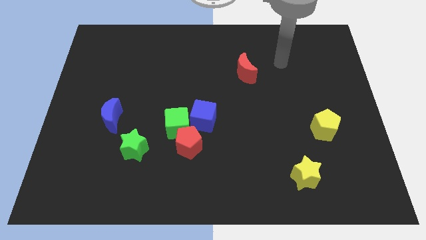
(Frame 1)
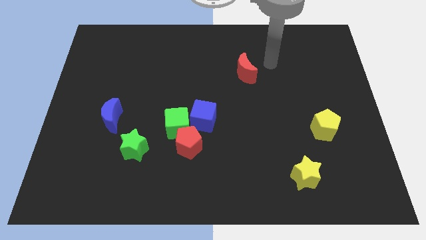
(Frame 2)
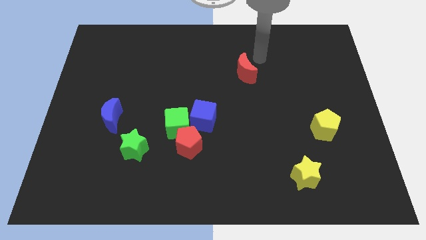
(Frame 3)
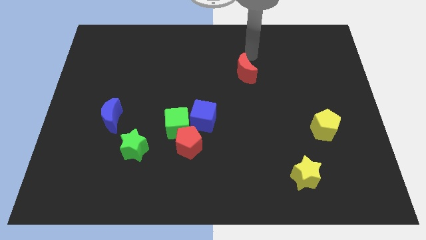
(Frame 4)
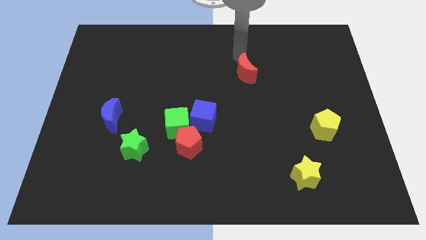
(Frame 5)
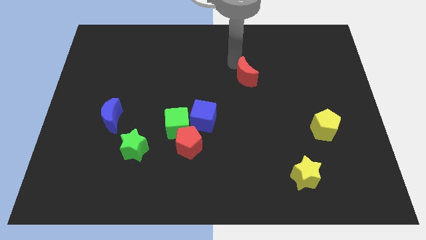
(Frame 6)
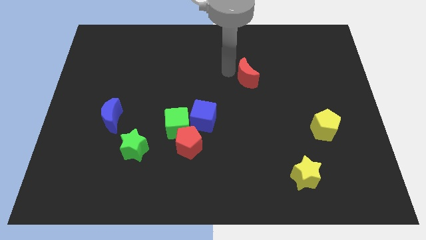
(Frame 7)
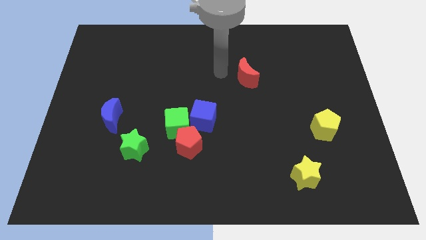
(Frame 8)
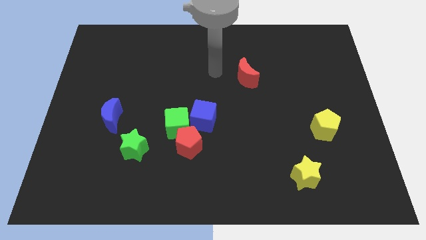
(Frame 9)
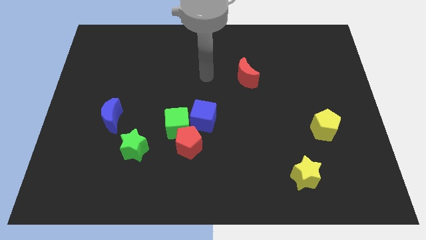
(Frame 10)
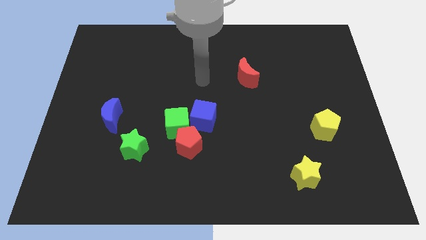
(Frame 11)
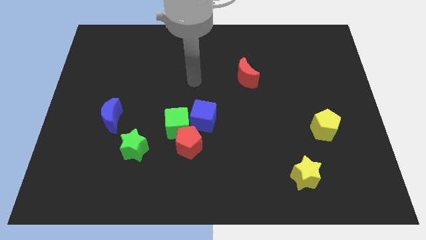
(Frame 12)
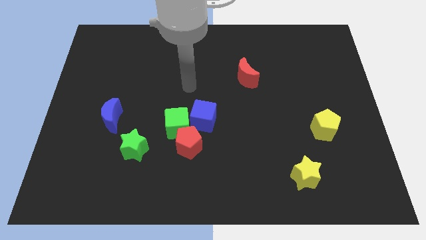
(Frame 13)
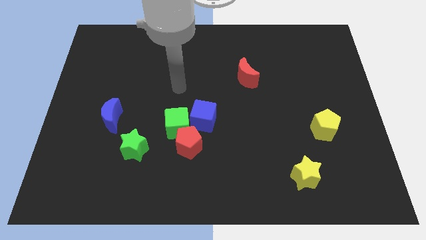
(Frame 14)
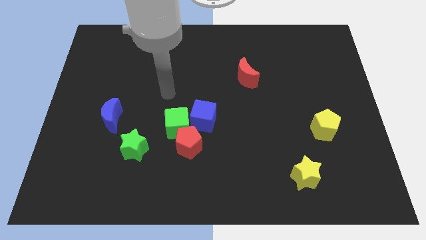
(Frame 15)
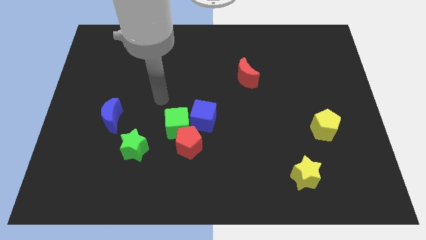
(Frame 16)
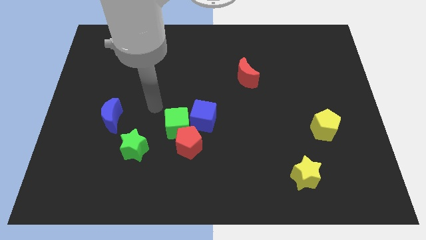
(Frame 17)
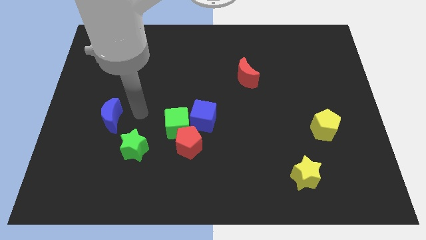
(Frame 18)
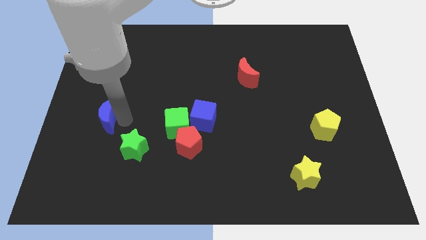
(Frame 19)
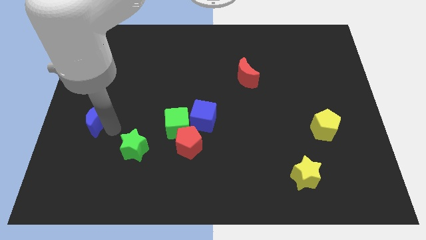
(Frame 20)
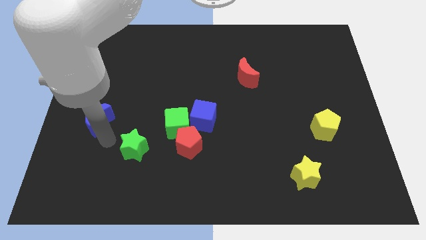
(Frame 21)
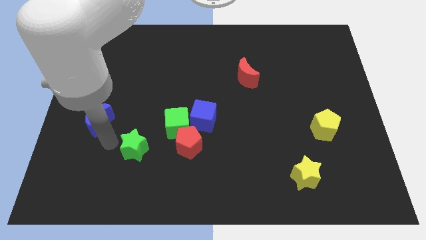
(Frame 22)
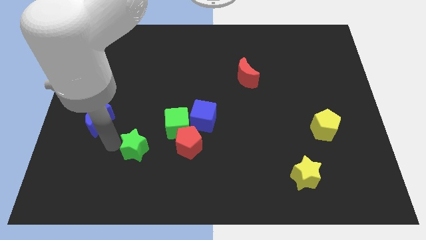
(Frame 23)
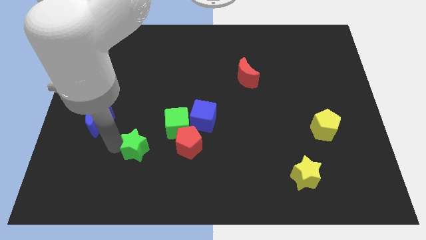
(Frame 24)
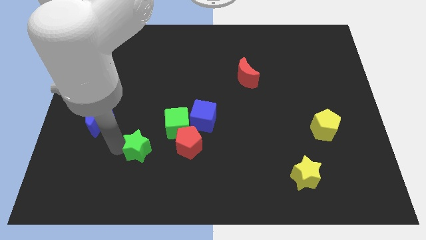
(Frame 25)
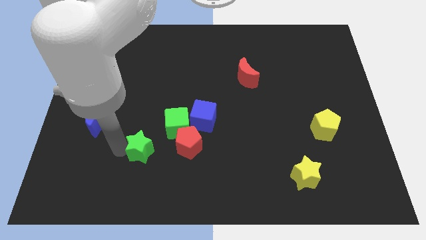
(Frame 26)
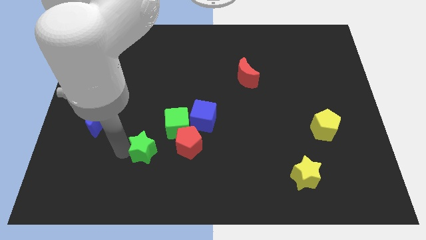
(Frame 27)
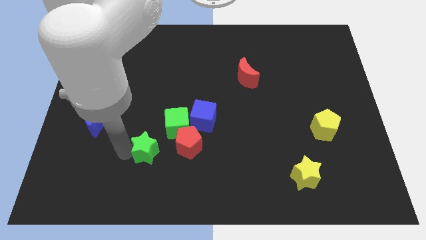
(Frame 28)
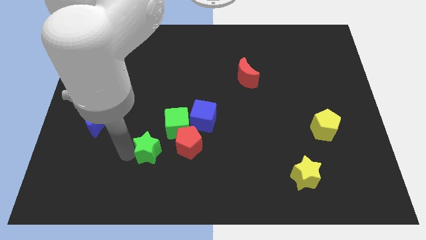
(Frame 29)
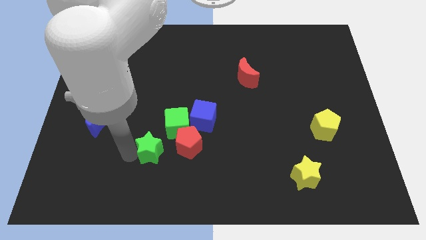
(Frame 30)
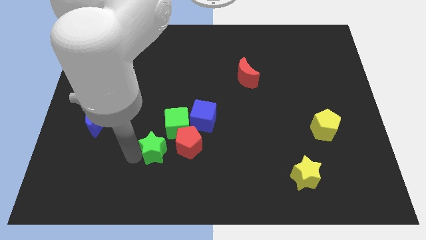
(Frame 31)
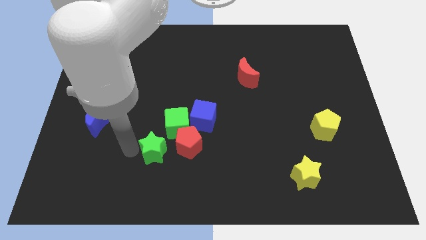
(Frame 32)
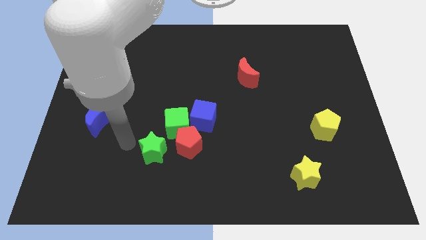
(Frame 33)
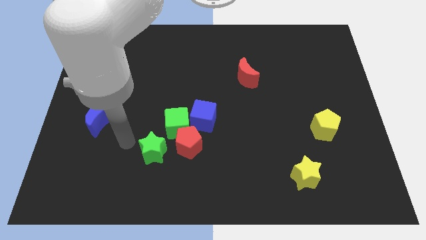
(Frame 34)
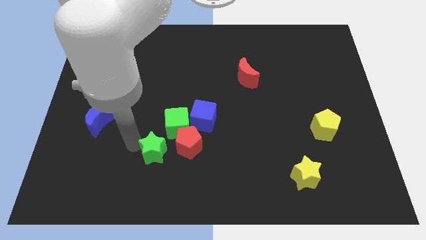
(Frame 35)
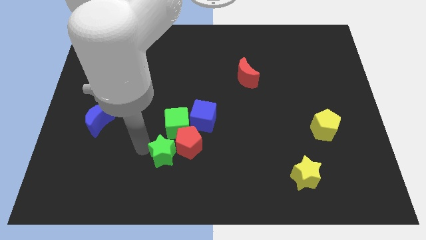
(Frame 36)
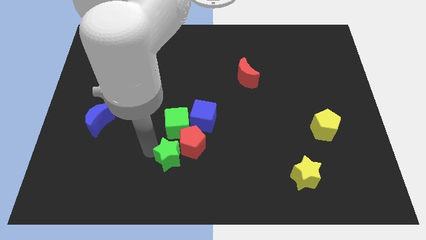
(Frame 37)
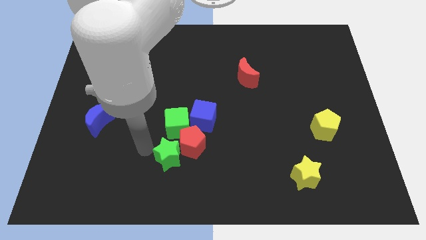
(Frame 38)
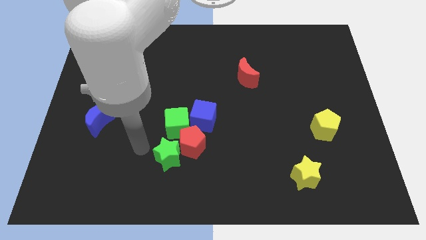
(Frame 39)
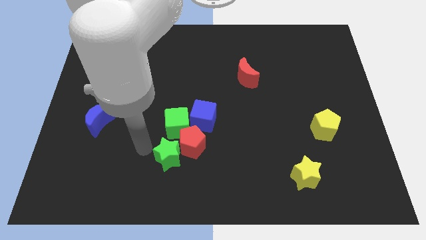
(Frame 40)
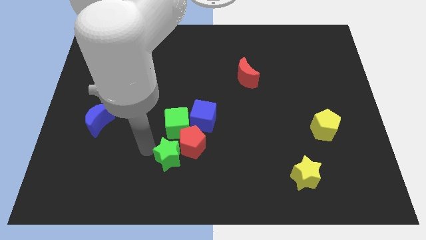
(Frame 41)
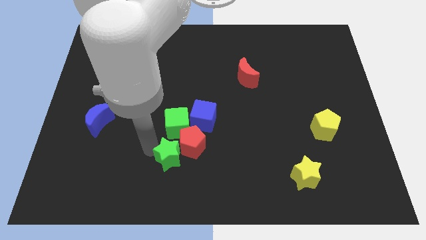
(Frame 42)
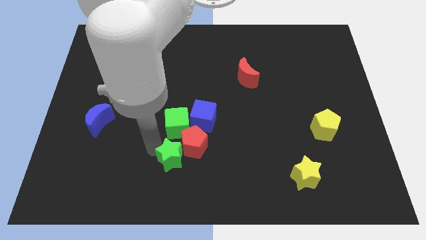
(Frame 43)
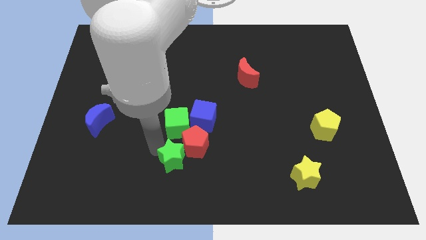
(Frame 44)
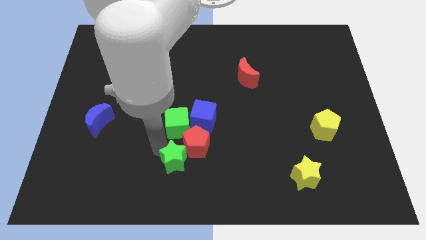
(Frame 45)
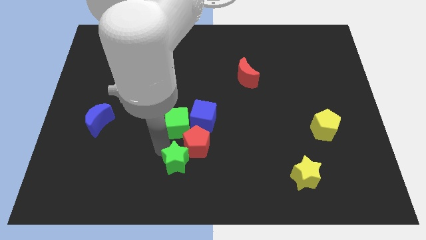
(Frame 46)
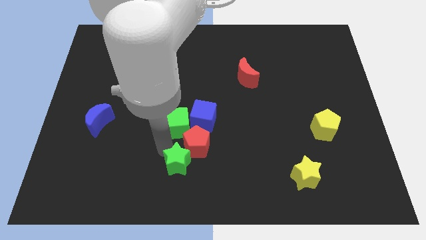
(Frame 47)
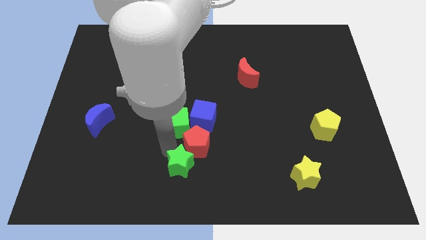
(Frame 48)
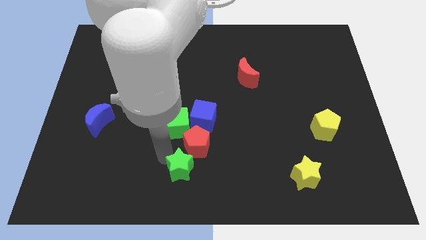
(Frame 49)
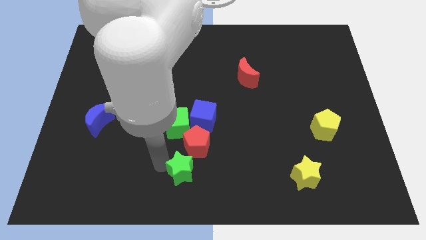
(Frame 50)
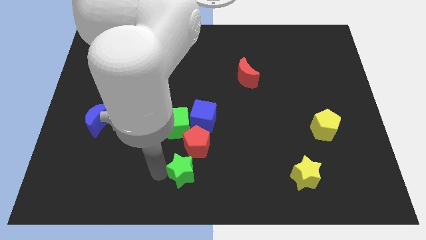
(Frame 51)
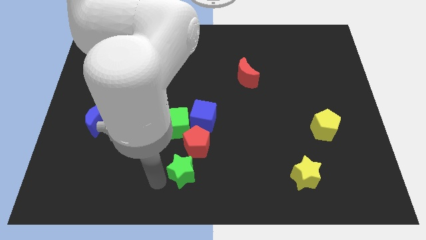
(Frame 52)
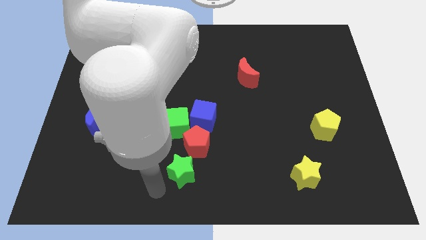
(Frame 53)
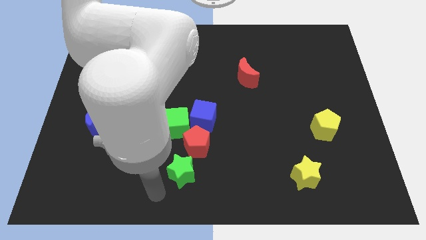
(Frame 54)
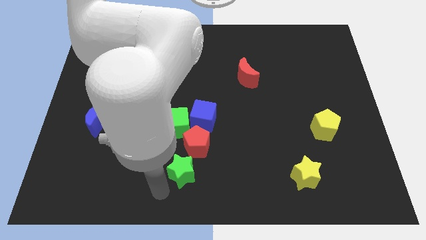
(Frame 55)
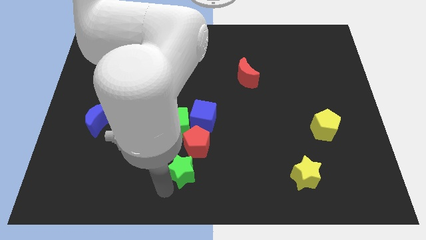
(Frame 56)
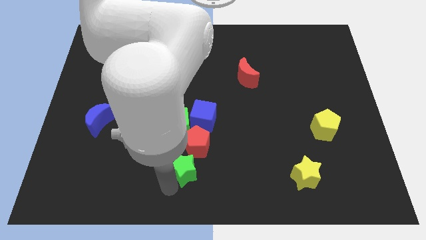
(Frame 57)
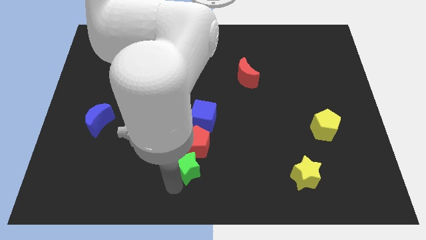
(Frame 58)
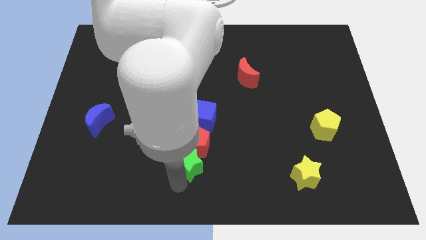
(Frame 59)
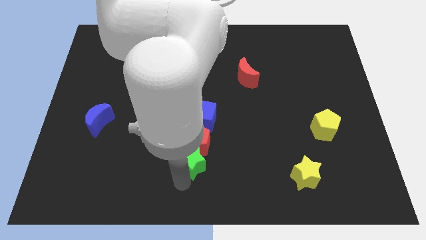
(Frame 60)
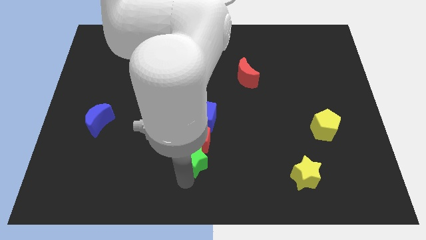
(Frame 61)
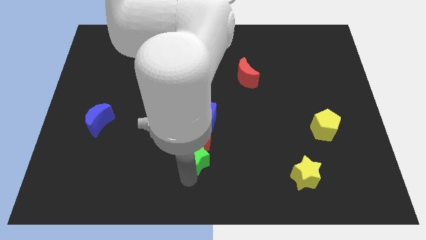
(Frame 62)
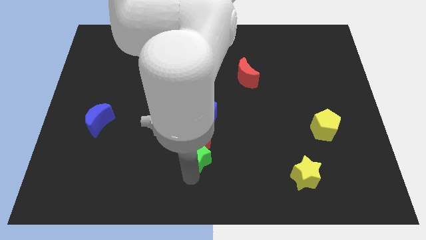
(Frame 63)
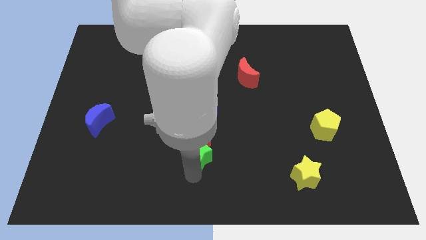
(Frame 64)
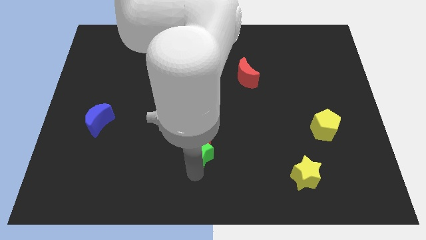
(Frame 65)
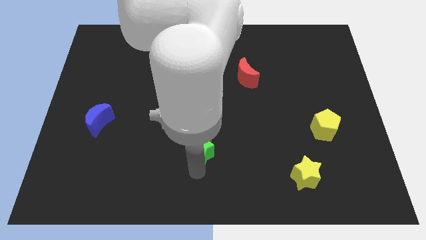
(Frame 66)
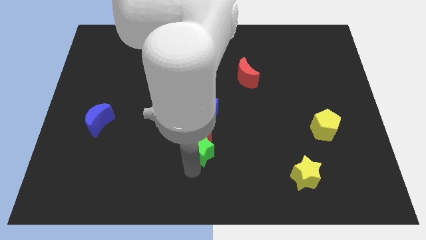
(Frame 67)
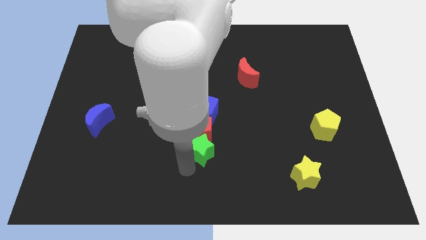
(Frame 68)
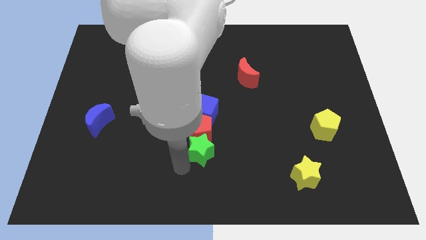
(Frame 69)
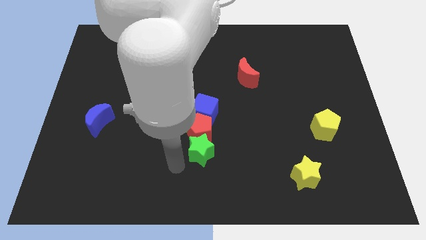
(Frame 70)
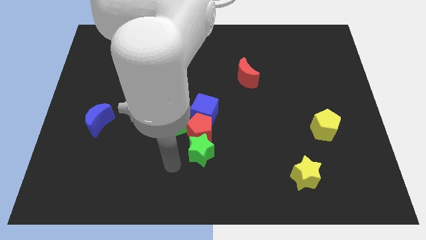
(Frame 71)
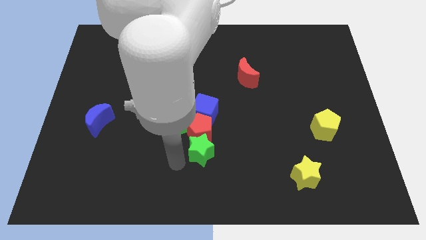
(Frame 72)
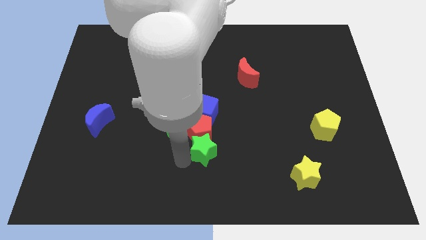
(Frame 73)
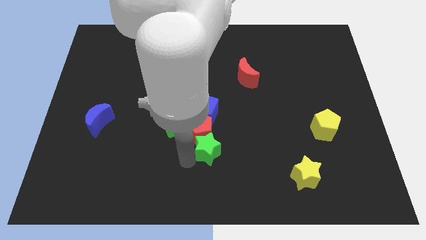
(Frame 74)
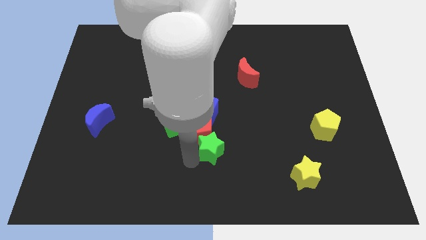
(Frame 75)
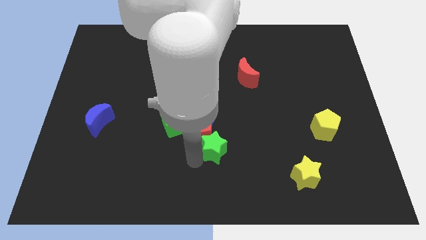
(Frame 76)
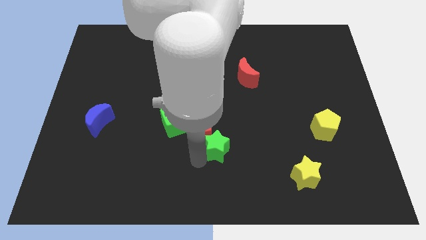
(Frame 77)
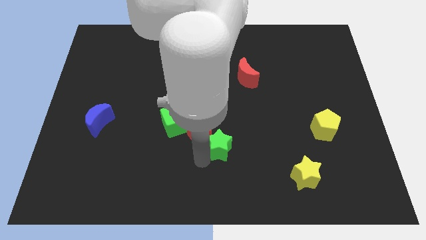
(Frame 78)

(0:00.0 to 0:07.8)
put the green star to the bottom right of the blue cube
